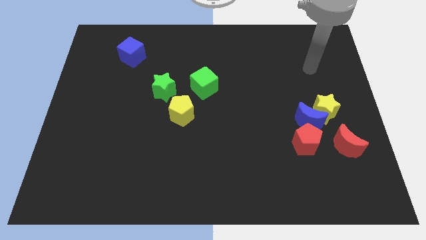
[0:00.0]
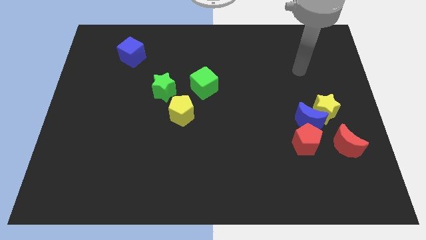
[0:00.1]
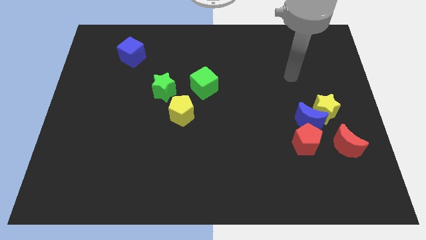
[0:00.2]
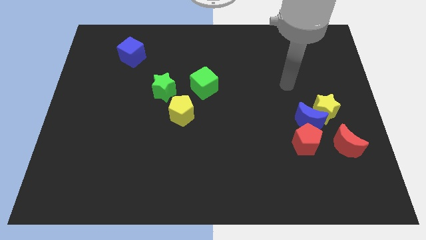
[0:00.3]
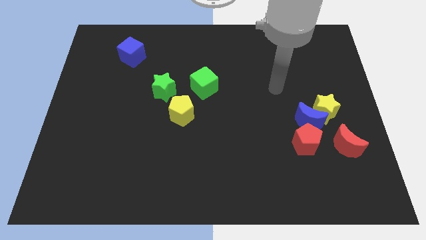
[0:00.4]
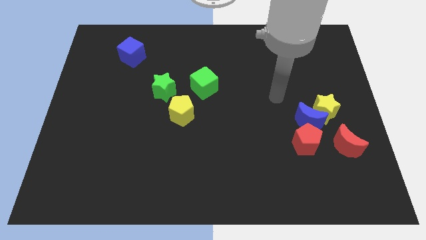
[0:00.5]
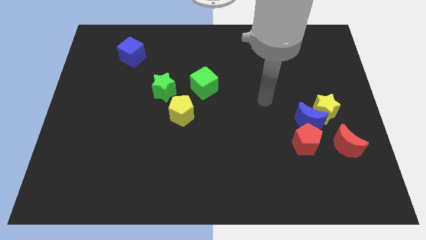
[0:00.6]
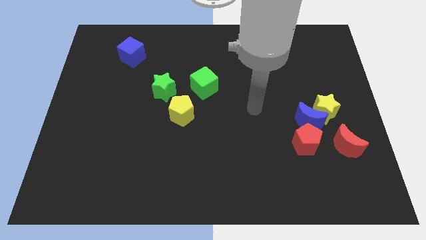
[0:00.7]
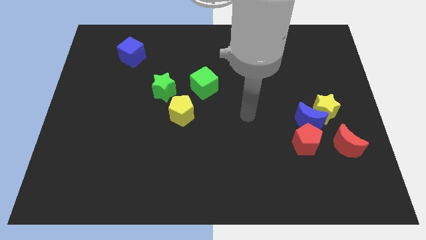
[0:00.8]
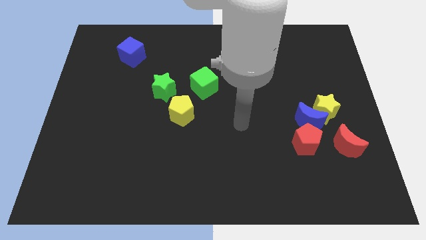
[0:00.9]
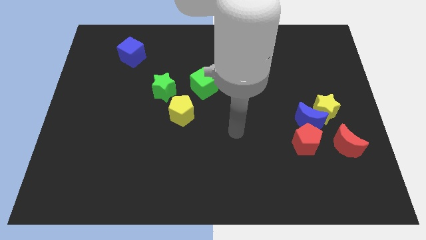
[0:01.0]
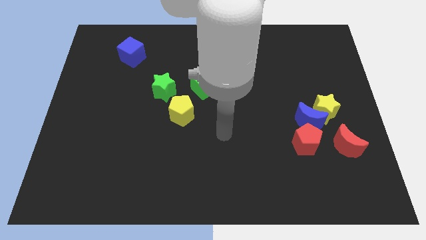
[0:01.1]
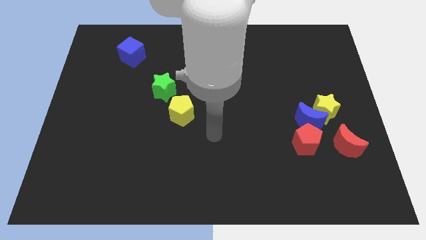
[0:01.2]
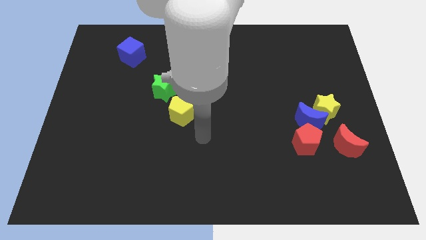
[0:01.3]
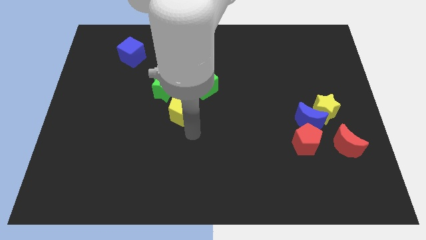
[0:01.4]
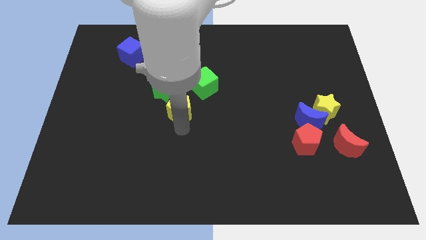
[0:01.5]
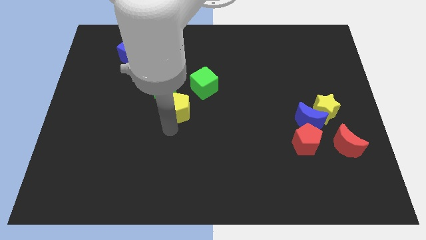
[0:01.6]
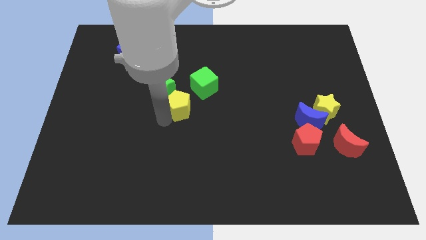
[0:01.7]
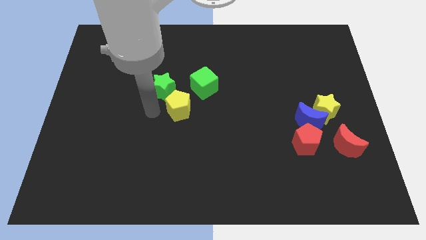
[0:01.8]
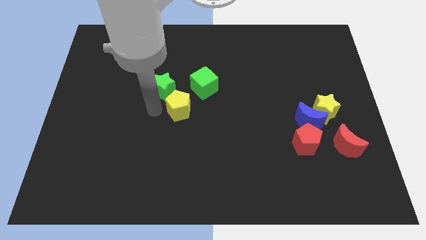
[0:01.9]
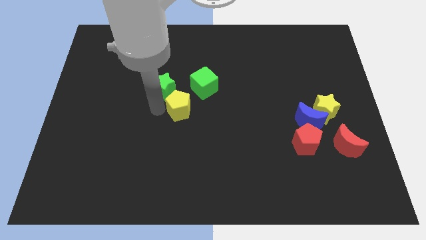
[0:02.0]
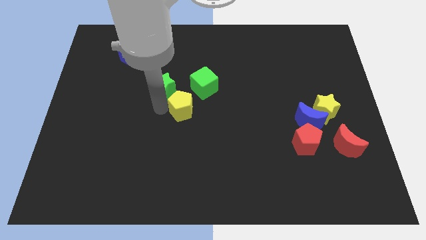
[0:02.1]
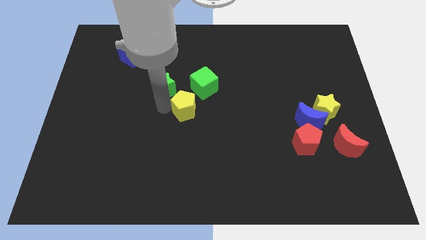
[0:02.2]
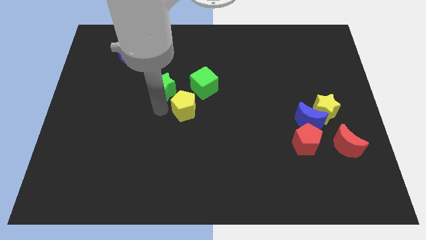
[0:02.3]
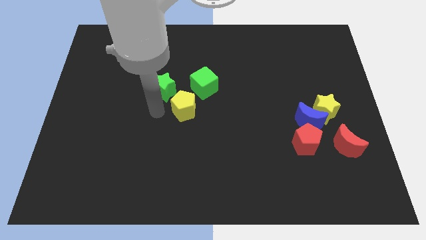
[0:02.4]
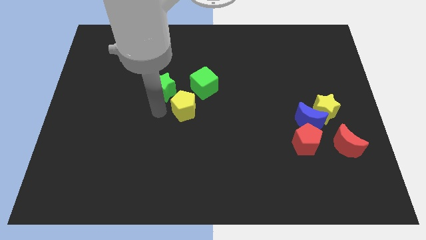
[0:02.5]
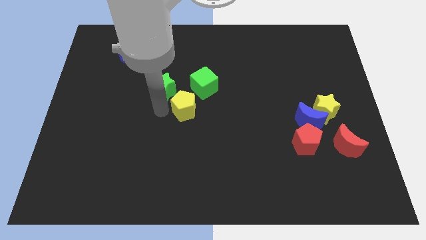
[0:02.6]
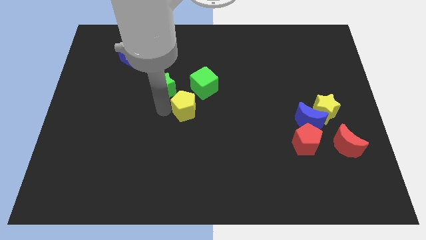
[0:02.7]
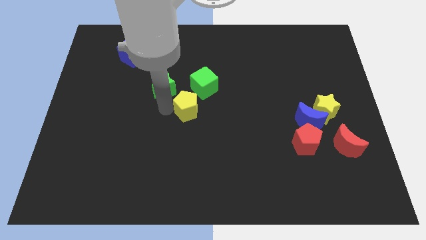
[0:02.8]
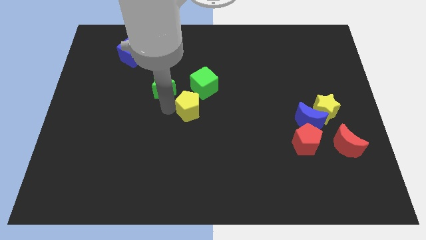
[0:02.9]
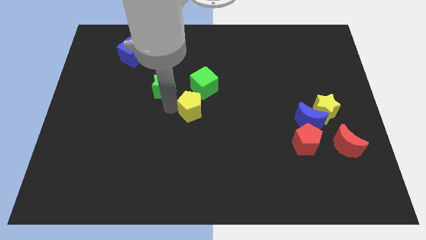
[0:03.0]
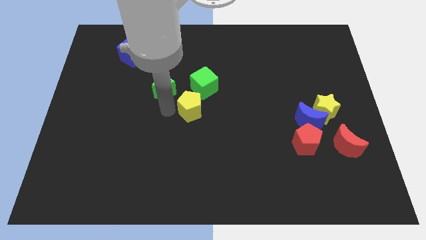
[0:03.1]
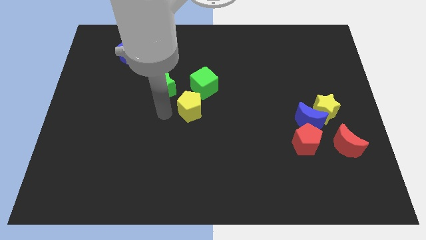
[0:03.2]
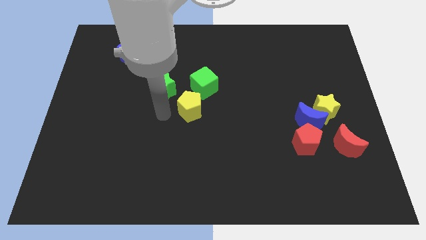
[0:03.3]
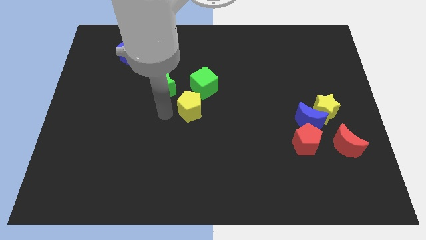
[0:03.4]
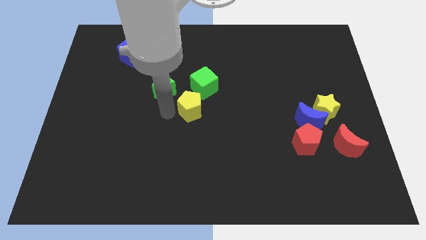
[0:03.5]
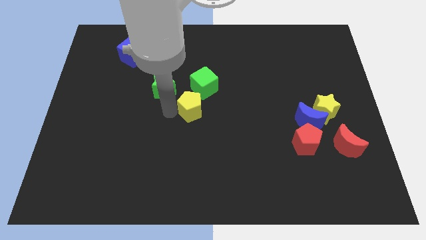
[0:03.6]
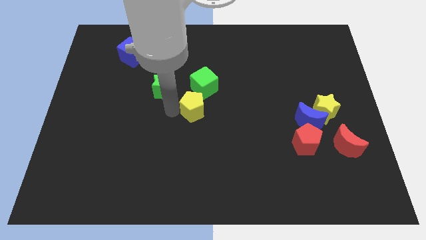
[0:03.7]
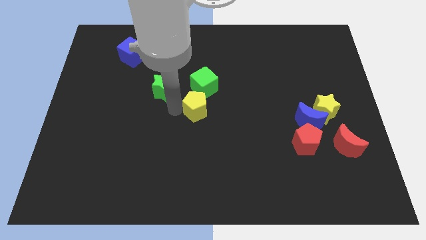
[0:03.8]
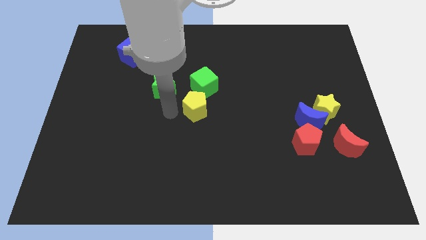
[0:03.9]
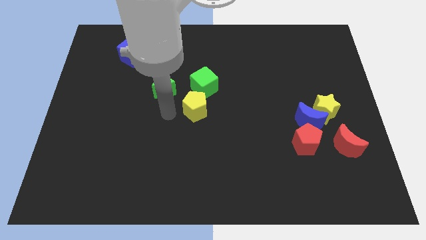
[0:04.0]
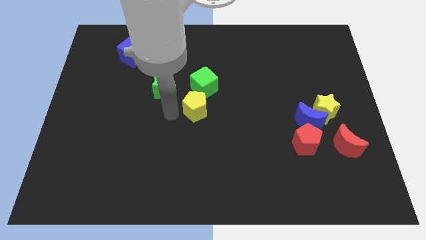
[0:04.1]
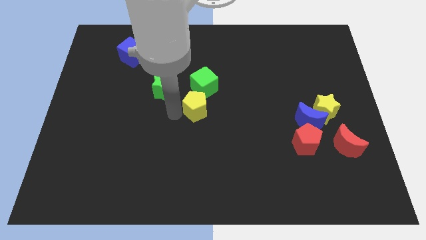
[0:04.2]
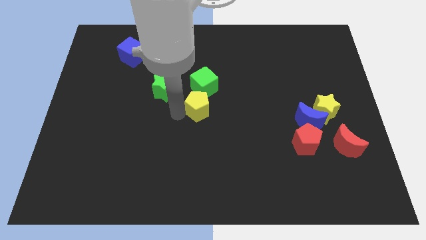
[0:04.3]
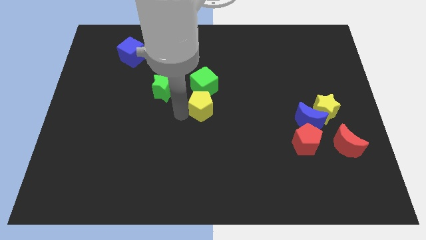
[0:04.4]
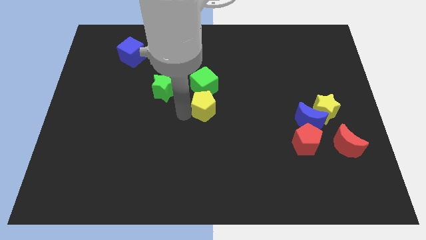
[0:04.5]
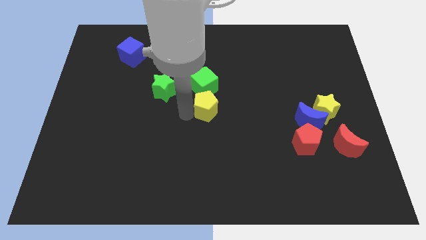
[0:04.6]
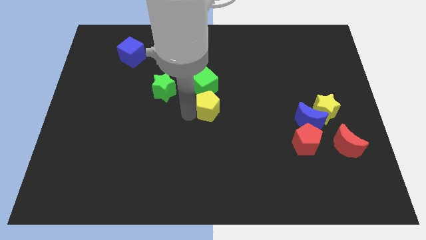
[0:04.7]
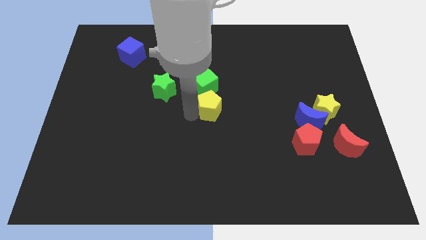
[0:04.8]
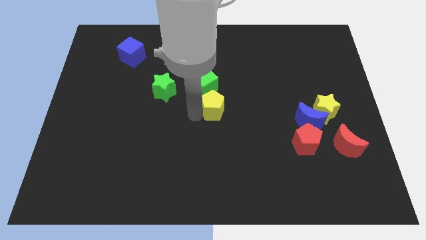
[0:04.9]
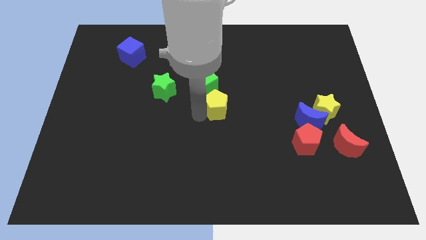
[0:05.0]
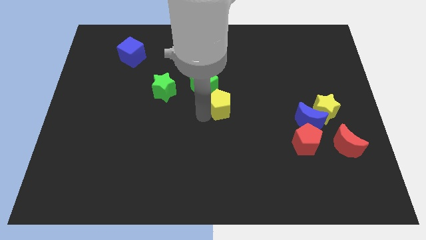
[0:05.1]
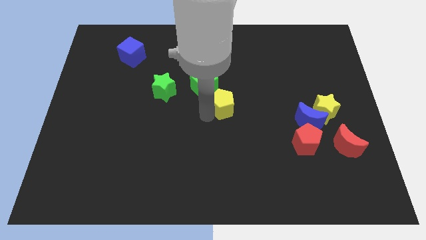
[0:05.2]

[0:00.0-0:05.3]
push the yellow pentagon a bit up and to the right

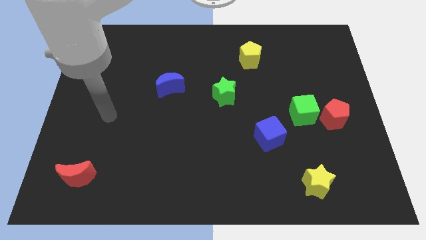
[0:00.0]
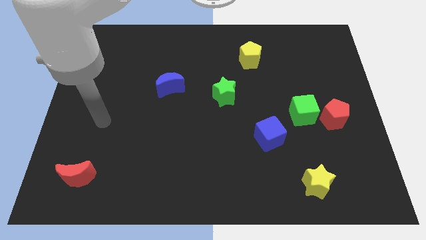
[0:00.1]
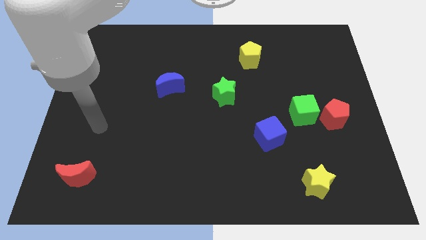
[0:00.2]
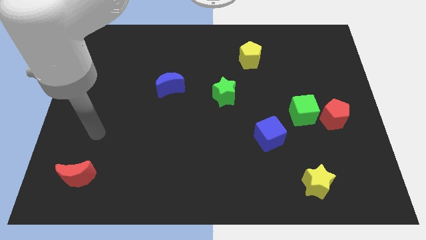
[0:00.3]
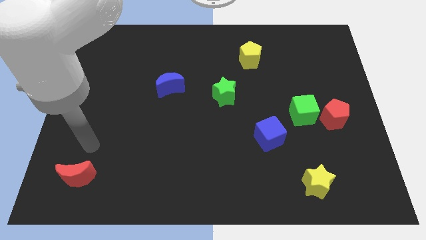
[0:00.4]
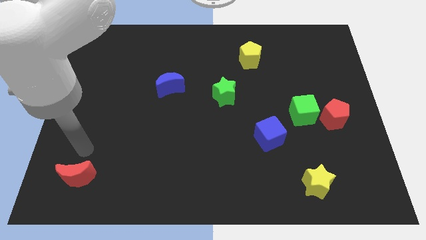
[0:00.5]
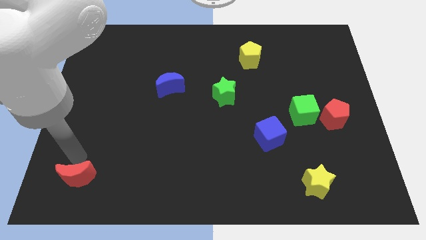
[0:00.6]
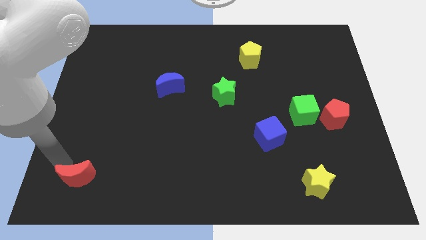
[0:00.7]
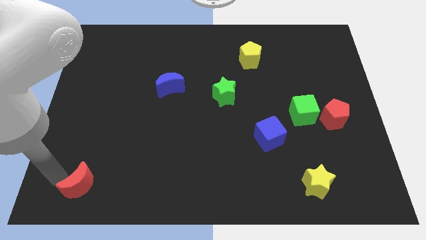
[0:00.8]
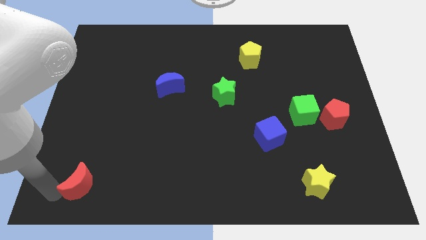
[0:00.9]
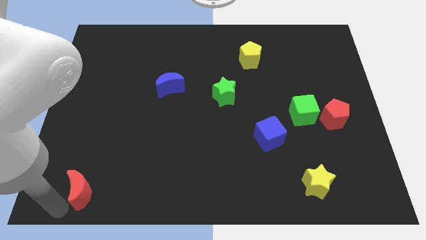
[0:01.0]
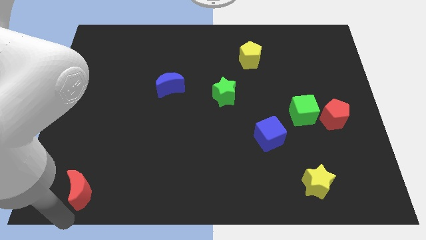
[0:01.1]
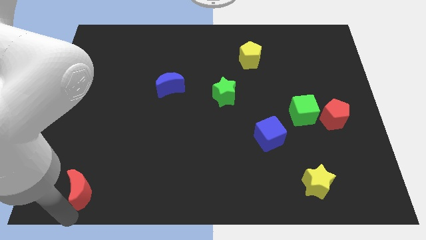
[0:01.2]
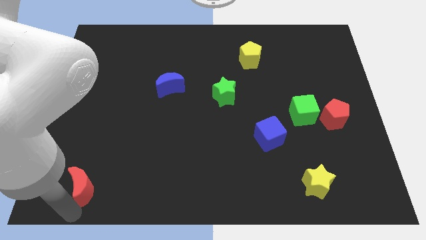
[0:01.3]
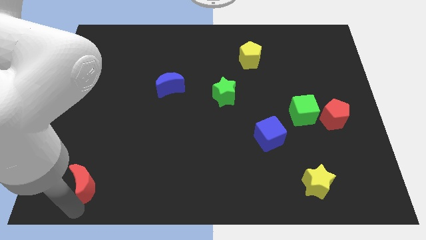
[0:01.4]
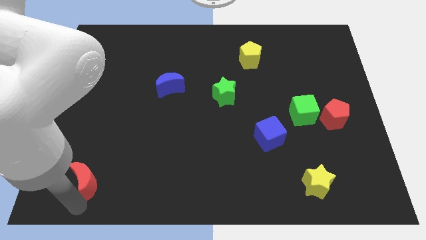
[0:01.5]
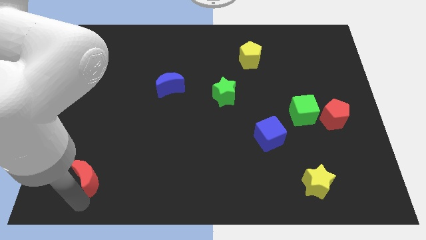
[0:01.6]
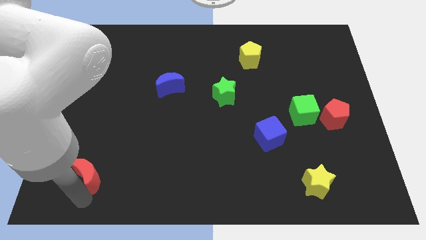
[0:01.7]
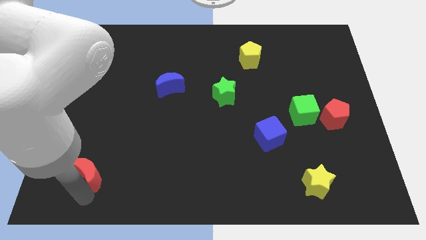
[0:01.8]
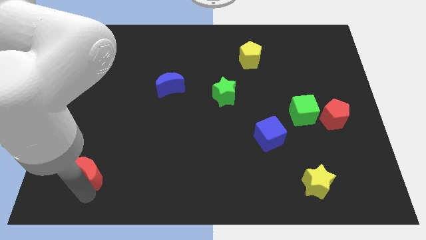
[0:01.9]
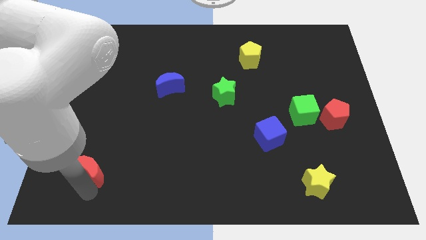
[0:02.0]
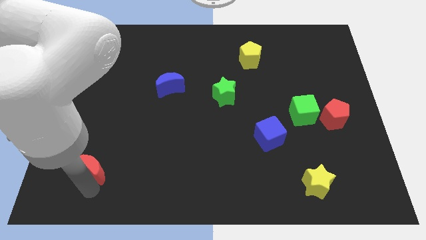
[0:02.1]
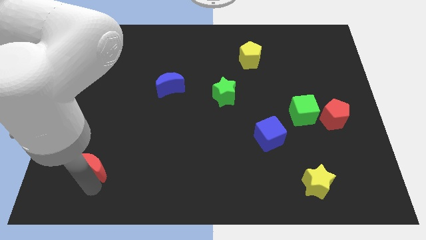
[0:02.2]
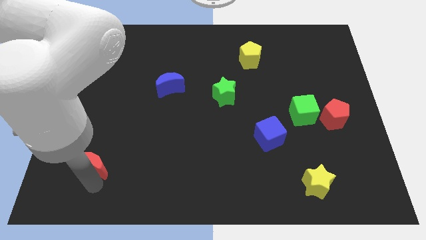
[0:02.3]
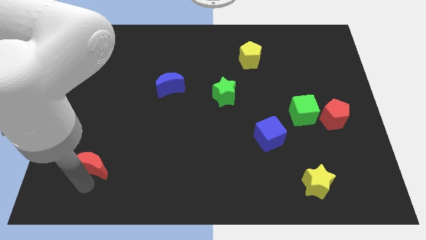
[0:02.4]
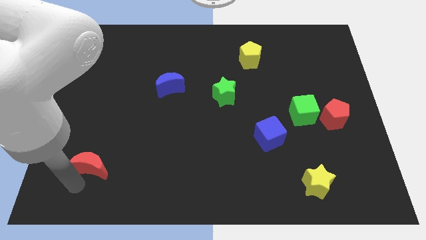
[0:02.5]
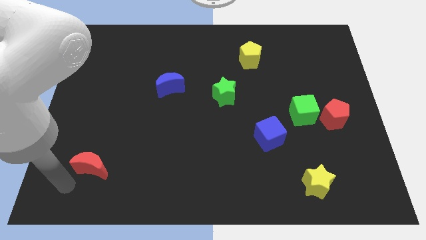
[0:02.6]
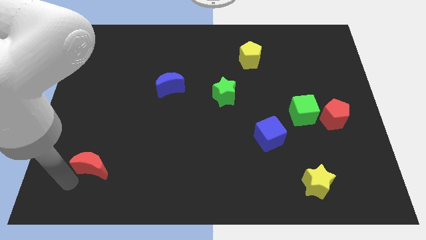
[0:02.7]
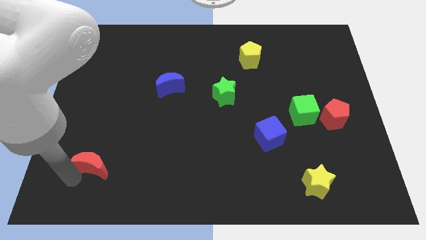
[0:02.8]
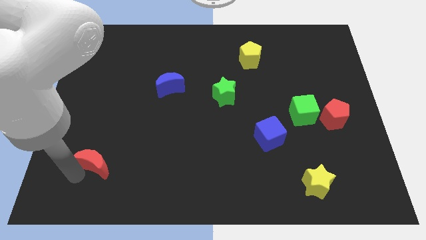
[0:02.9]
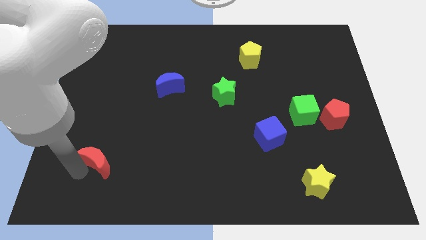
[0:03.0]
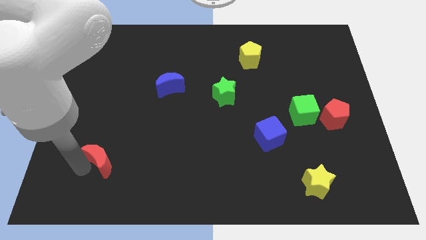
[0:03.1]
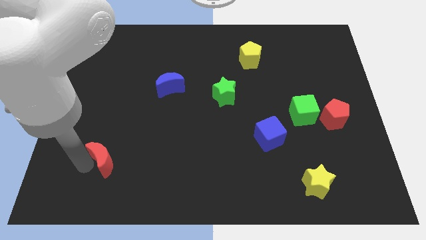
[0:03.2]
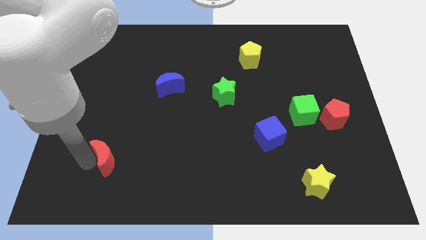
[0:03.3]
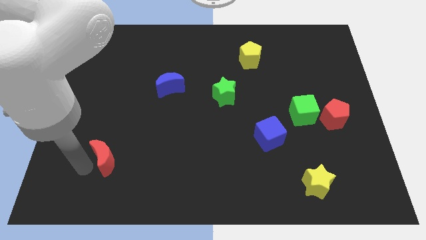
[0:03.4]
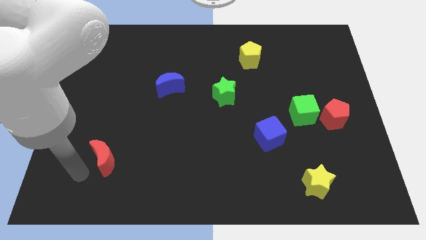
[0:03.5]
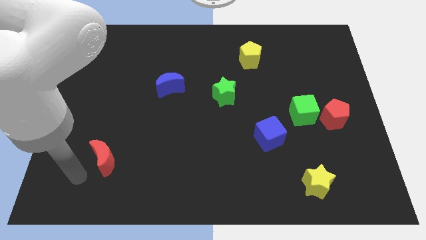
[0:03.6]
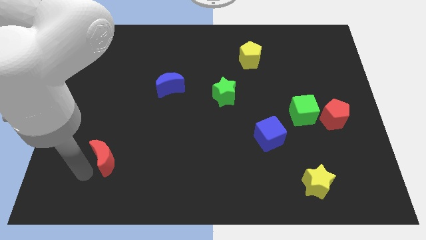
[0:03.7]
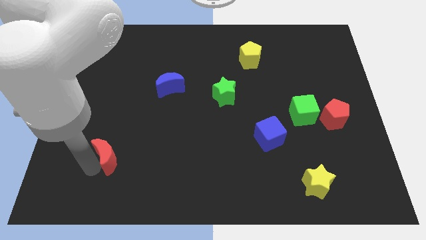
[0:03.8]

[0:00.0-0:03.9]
move the red moon up and then to the right a bit
